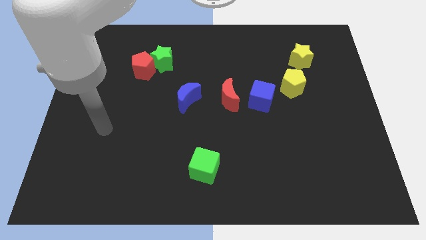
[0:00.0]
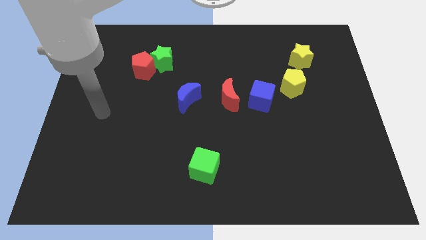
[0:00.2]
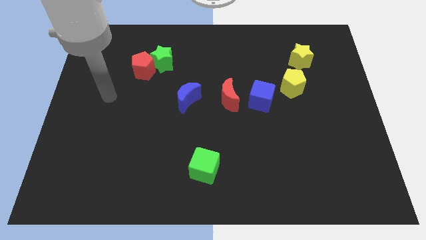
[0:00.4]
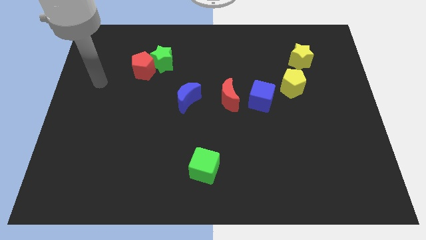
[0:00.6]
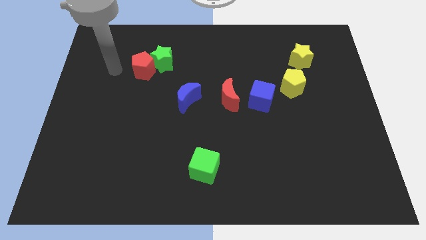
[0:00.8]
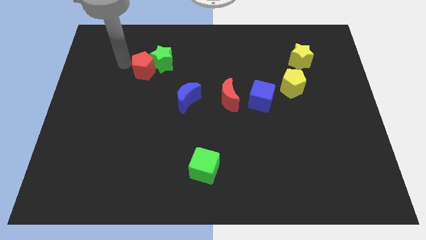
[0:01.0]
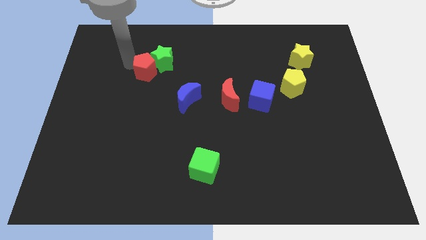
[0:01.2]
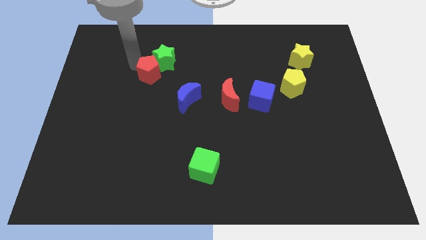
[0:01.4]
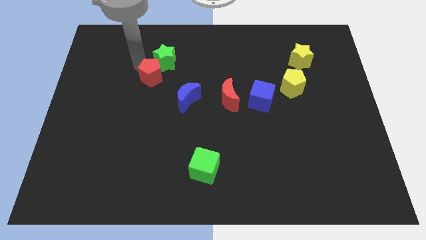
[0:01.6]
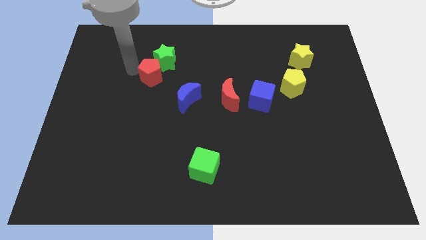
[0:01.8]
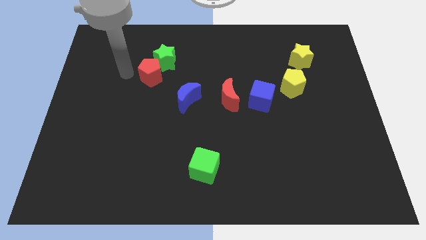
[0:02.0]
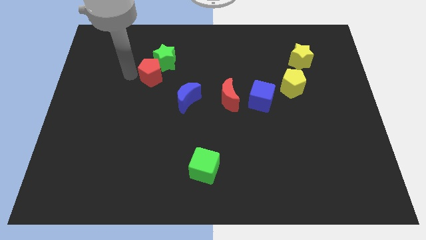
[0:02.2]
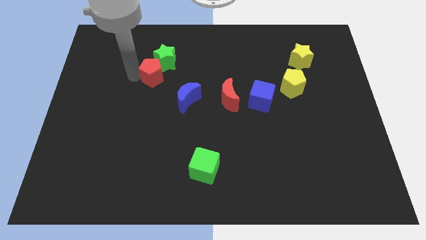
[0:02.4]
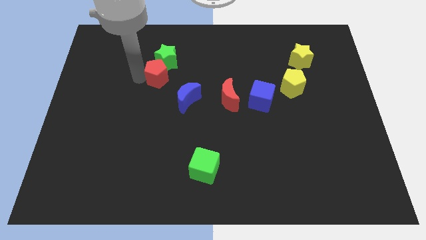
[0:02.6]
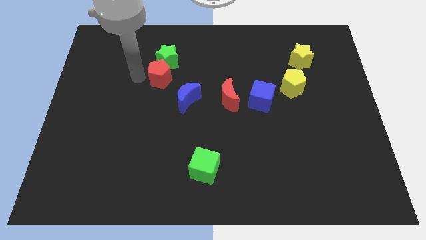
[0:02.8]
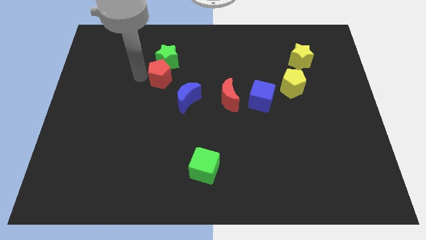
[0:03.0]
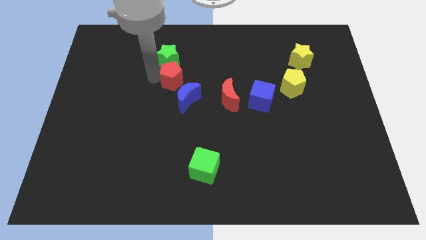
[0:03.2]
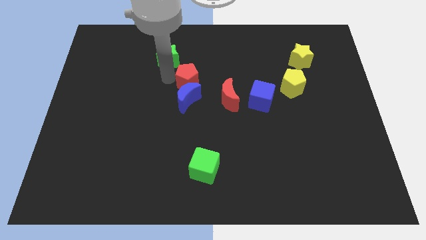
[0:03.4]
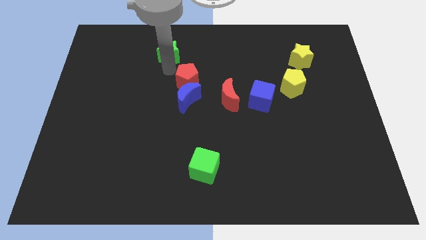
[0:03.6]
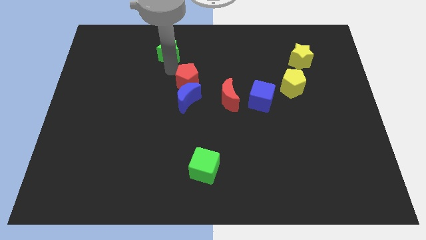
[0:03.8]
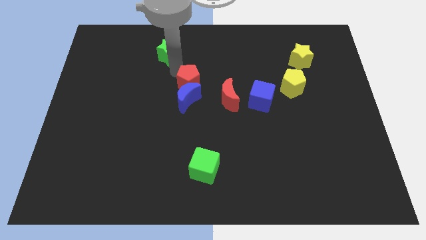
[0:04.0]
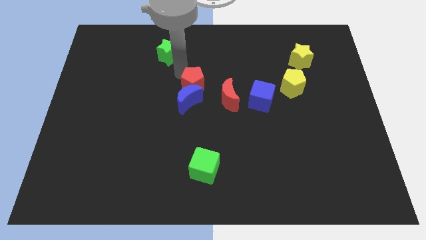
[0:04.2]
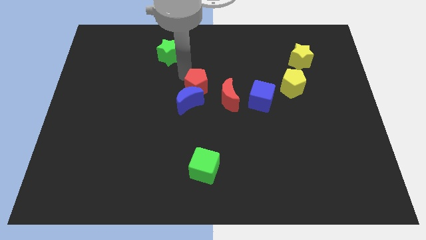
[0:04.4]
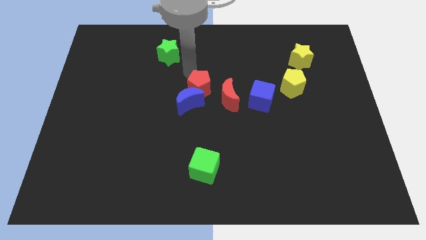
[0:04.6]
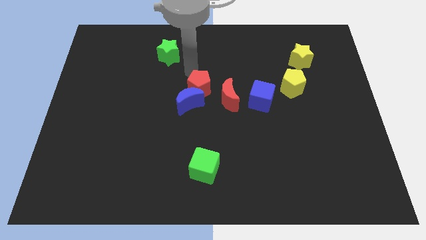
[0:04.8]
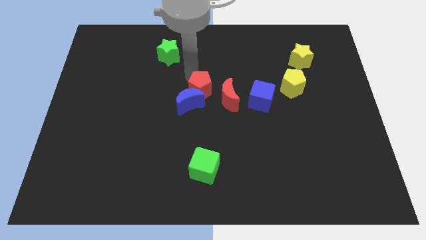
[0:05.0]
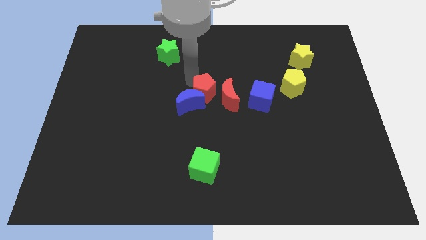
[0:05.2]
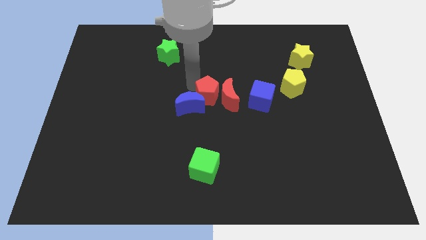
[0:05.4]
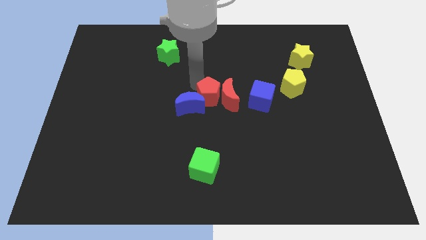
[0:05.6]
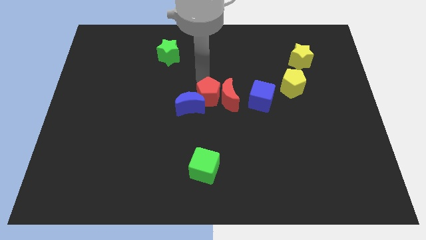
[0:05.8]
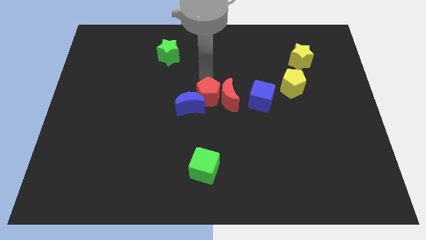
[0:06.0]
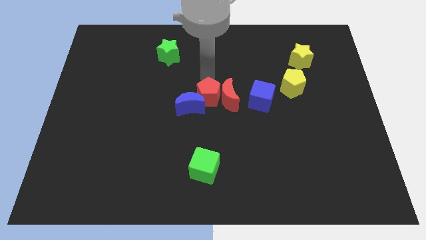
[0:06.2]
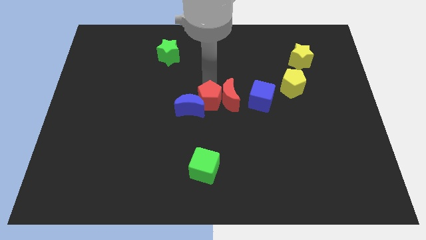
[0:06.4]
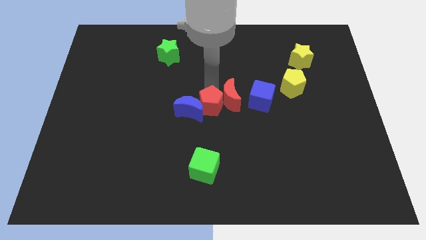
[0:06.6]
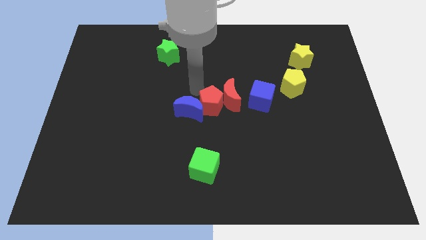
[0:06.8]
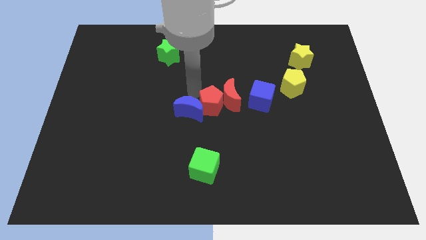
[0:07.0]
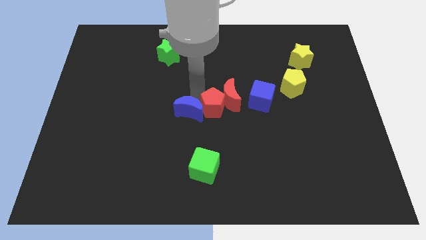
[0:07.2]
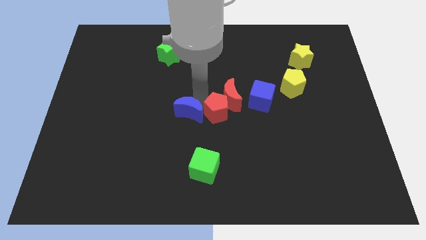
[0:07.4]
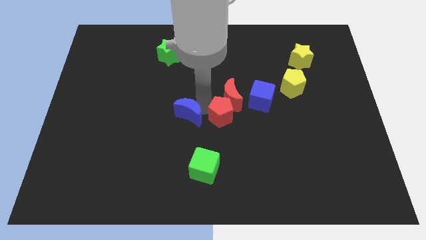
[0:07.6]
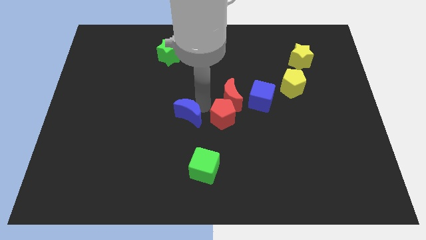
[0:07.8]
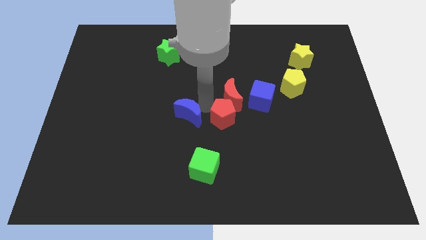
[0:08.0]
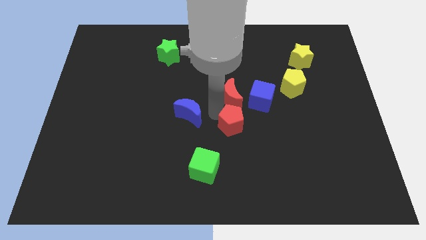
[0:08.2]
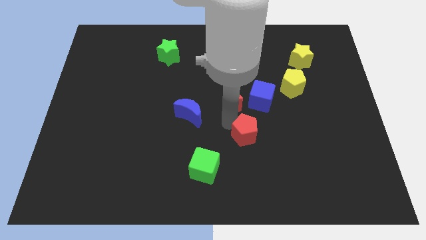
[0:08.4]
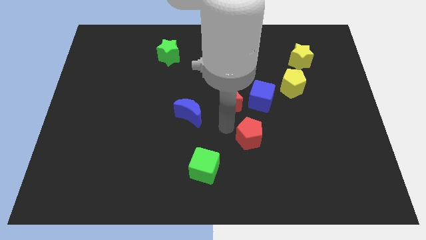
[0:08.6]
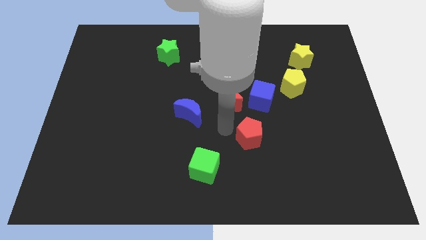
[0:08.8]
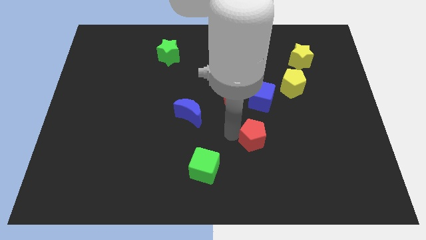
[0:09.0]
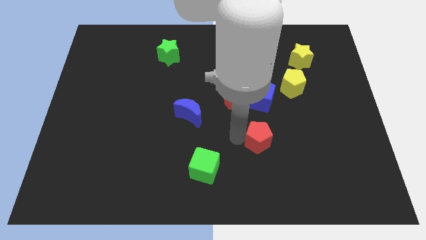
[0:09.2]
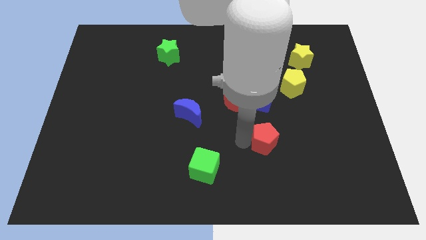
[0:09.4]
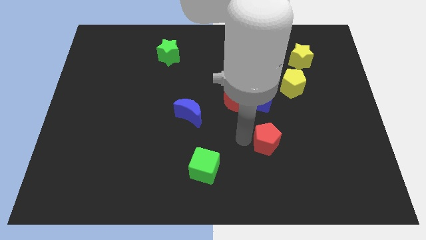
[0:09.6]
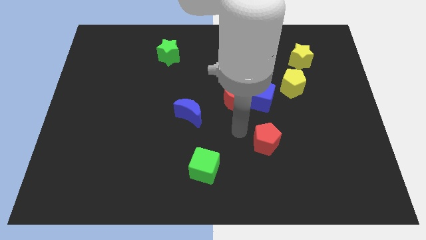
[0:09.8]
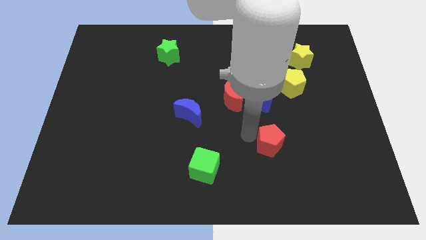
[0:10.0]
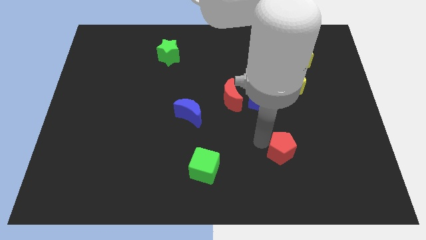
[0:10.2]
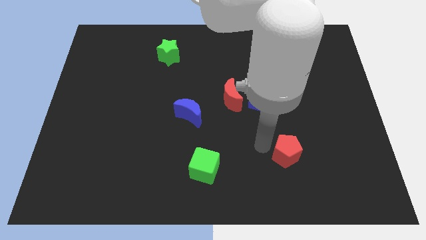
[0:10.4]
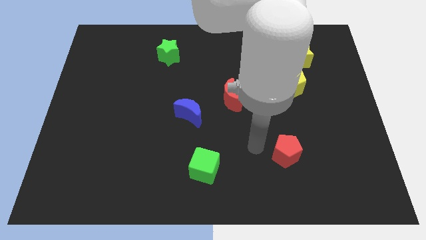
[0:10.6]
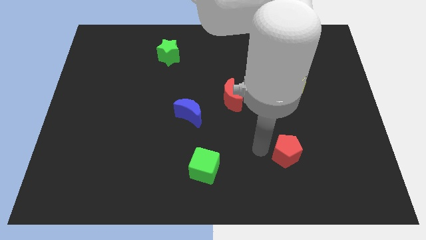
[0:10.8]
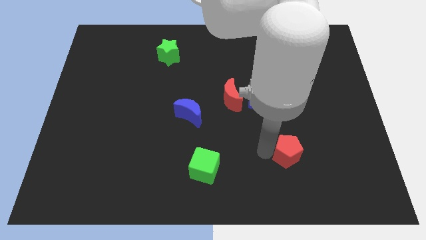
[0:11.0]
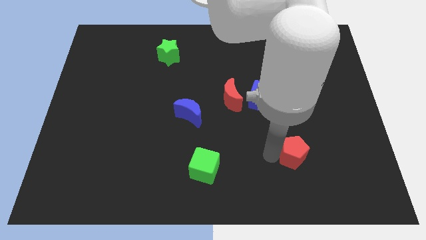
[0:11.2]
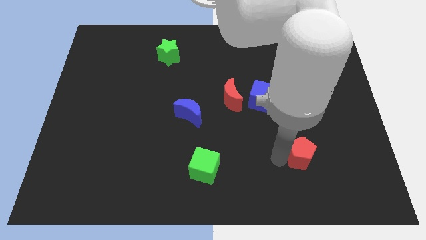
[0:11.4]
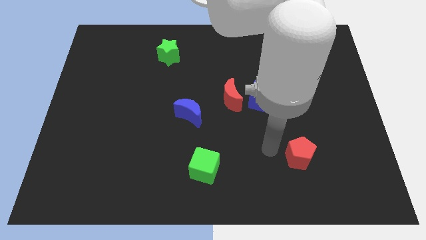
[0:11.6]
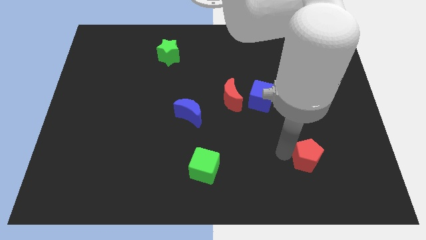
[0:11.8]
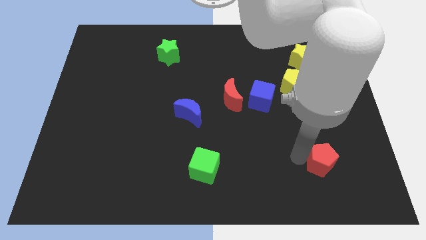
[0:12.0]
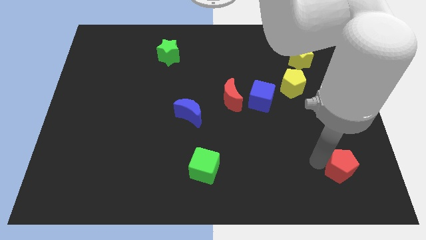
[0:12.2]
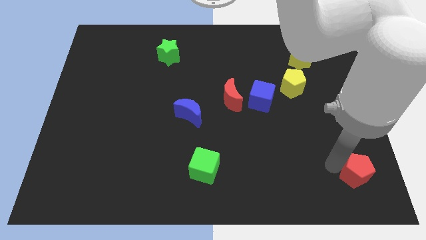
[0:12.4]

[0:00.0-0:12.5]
move the red pentagon to the bottom right corner
